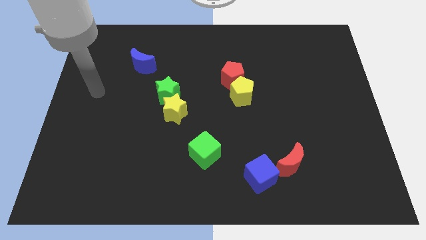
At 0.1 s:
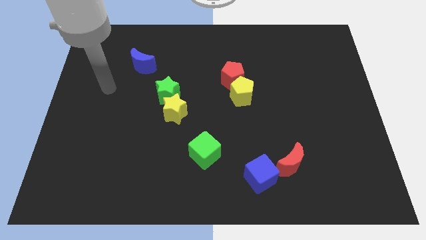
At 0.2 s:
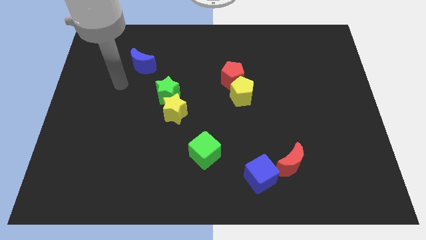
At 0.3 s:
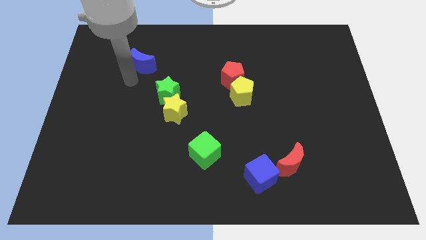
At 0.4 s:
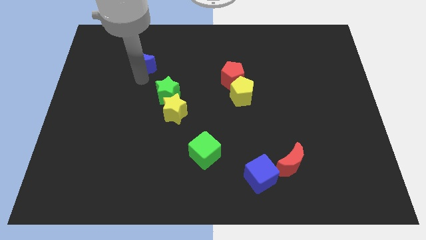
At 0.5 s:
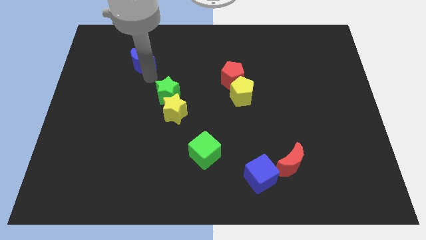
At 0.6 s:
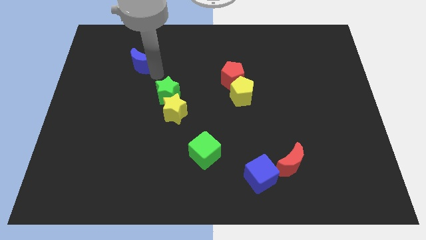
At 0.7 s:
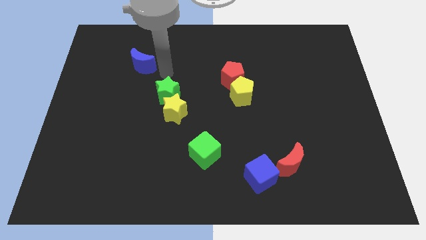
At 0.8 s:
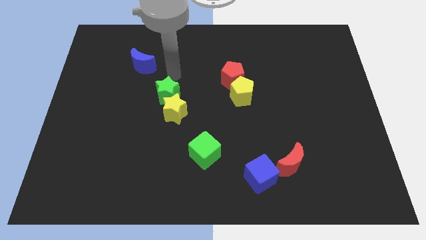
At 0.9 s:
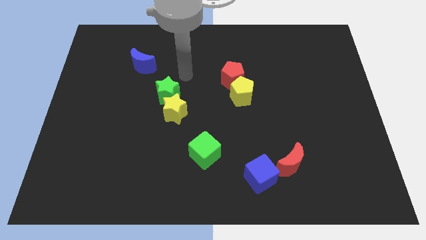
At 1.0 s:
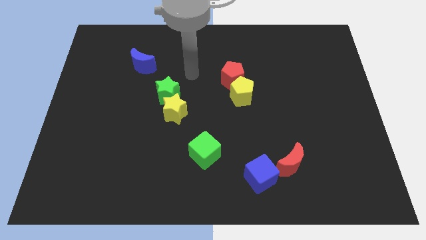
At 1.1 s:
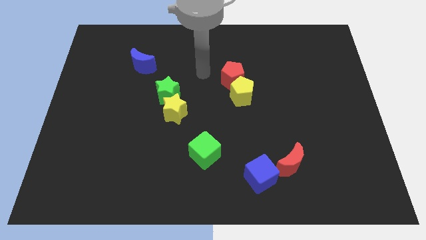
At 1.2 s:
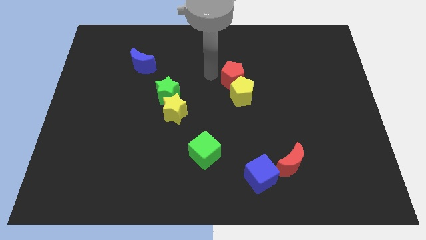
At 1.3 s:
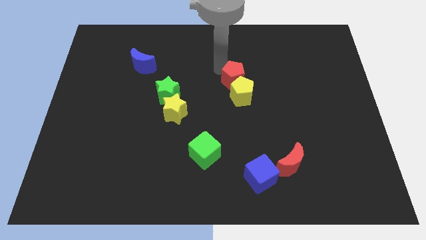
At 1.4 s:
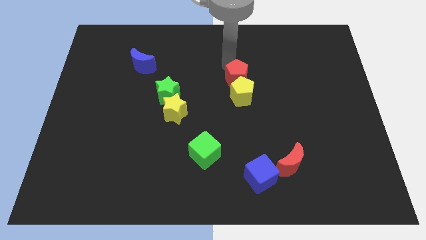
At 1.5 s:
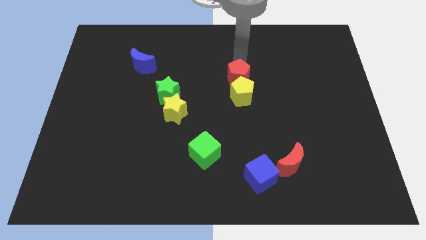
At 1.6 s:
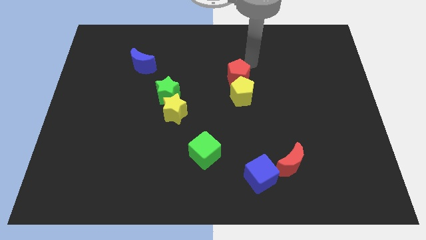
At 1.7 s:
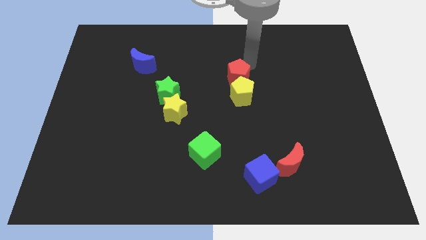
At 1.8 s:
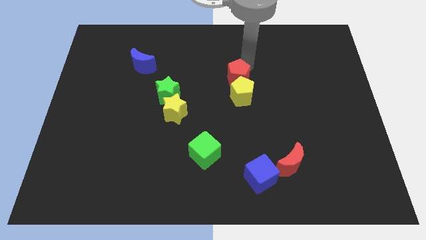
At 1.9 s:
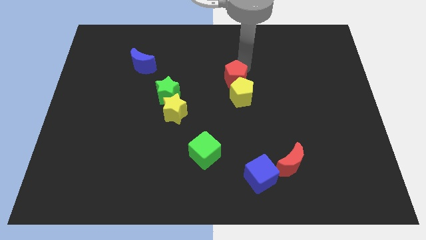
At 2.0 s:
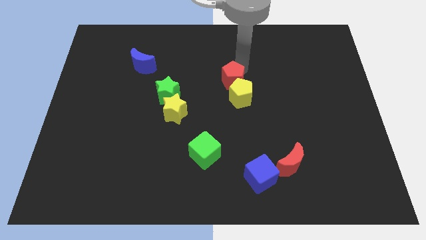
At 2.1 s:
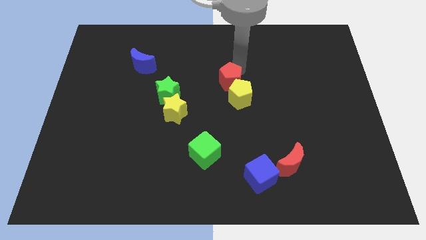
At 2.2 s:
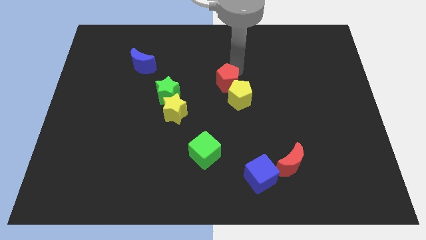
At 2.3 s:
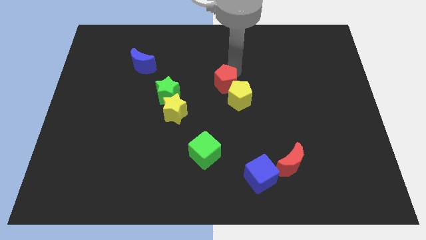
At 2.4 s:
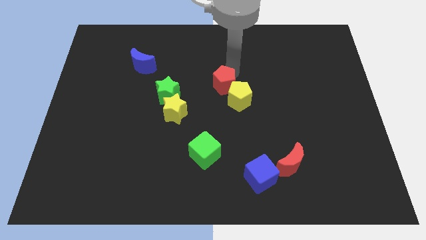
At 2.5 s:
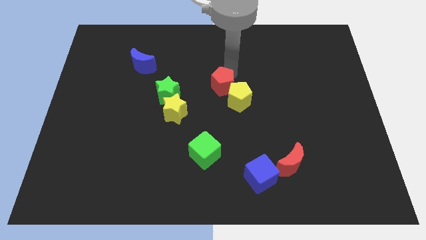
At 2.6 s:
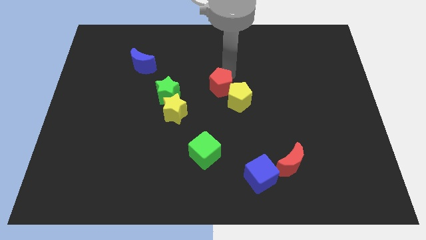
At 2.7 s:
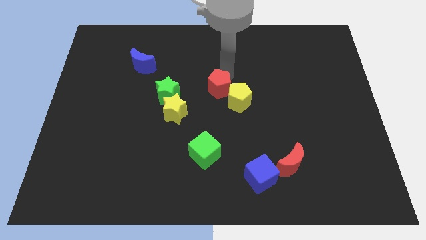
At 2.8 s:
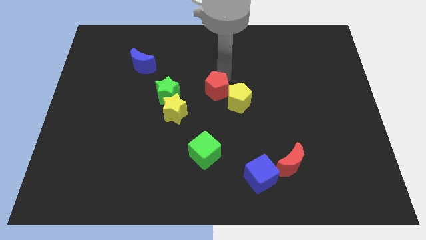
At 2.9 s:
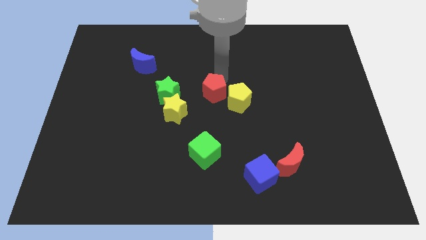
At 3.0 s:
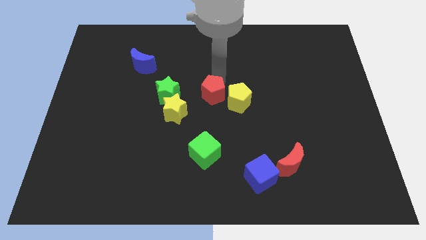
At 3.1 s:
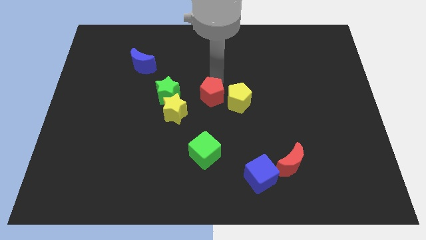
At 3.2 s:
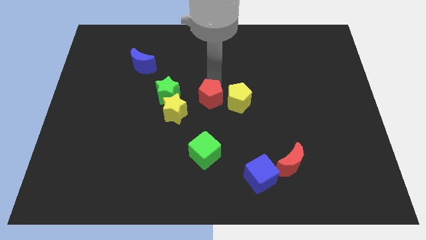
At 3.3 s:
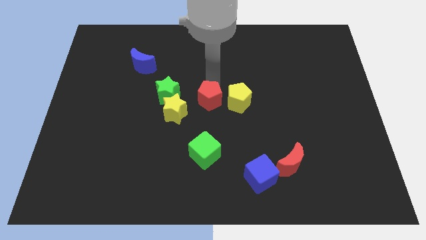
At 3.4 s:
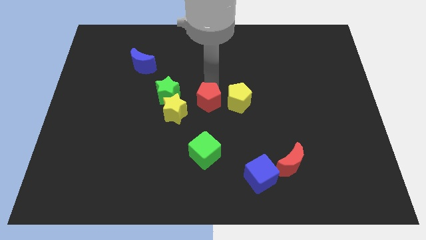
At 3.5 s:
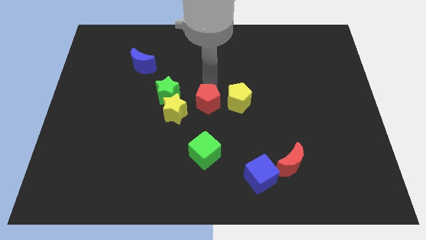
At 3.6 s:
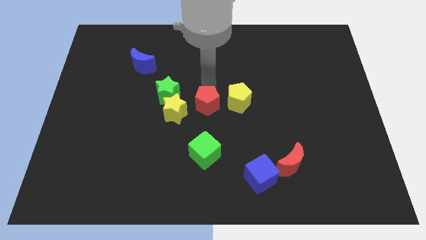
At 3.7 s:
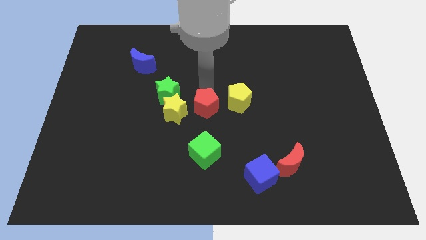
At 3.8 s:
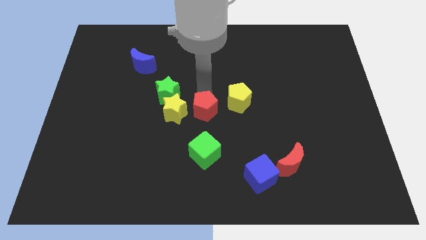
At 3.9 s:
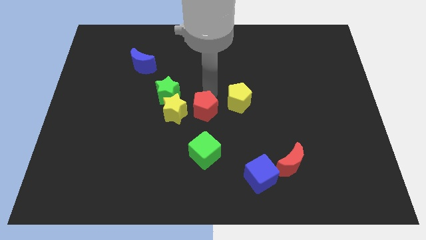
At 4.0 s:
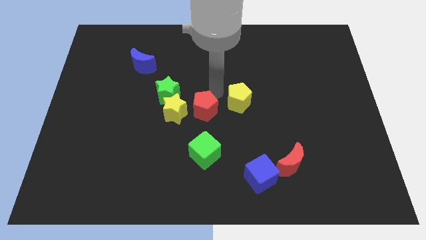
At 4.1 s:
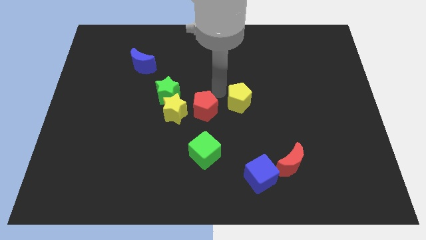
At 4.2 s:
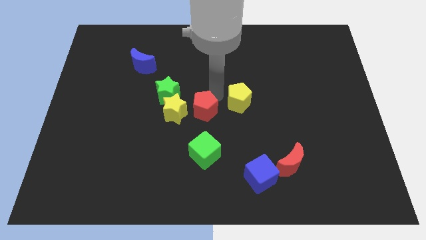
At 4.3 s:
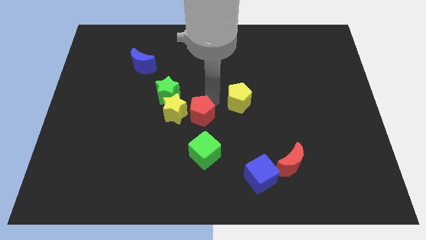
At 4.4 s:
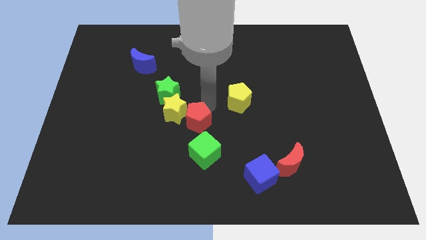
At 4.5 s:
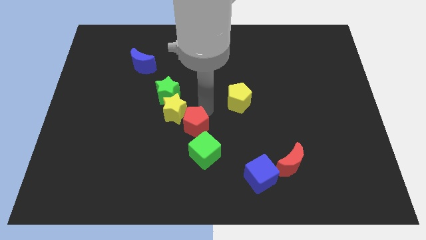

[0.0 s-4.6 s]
push the red pentagon to the bottom of the yellow star

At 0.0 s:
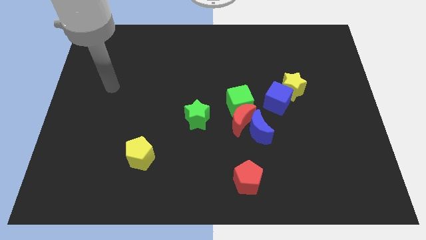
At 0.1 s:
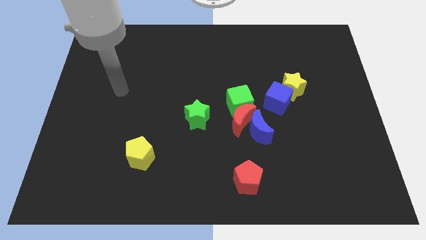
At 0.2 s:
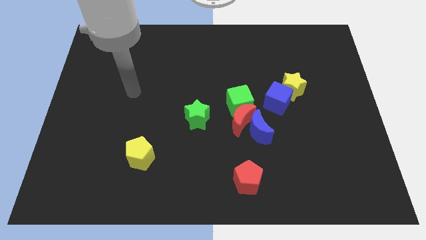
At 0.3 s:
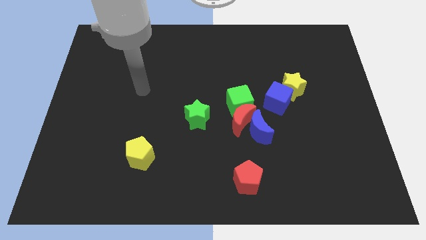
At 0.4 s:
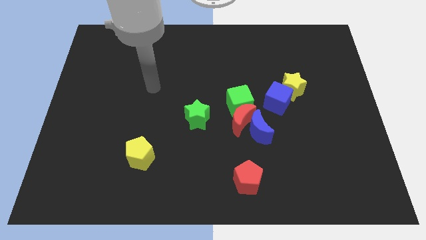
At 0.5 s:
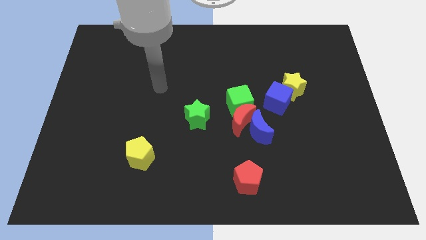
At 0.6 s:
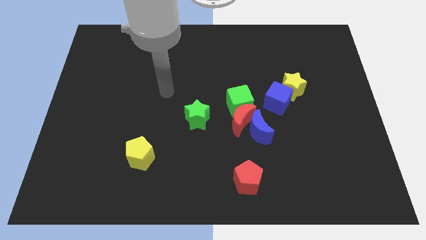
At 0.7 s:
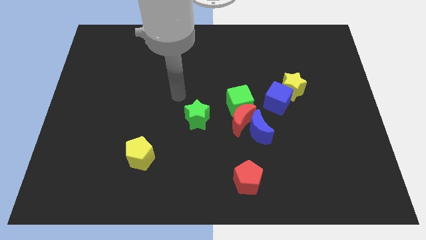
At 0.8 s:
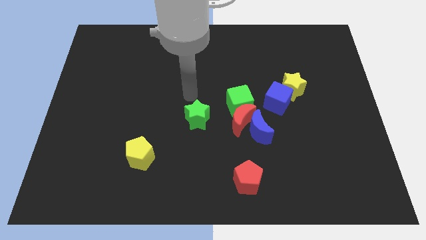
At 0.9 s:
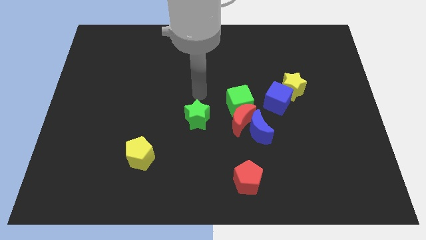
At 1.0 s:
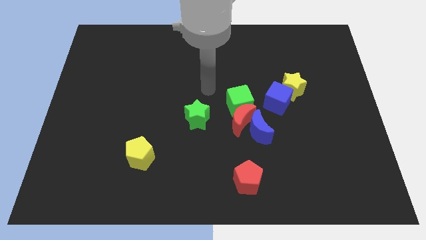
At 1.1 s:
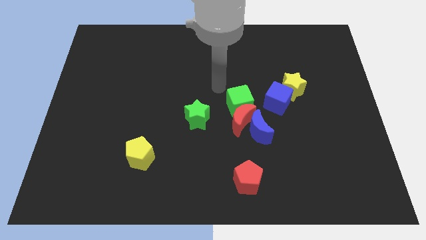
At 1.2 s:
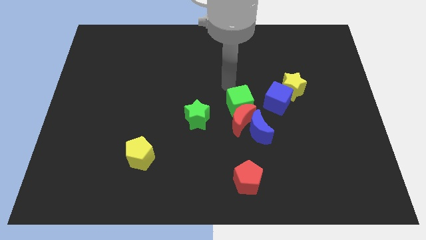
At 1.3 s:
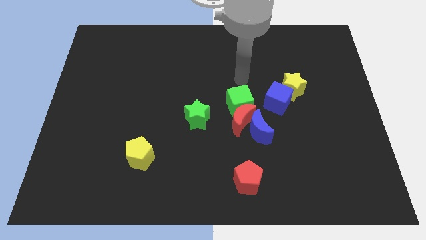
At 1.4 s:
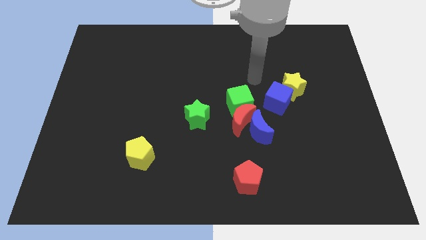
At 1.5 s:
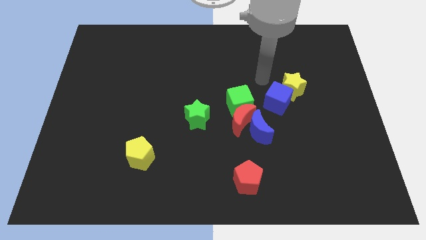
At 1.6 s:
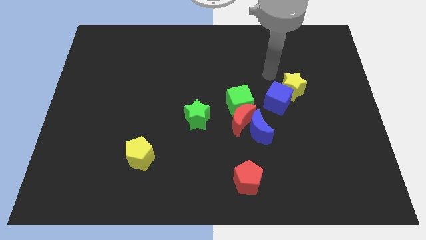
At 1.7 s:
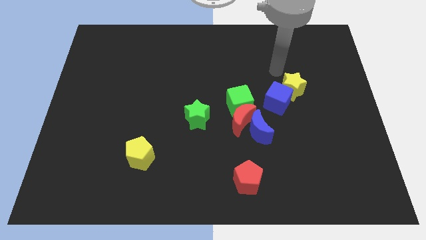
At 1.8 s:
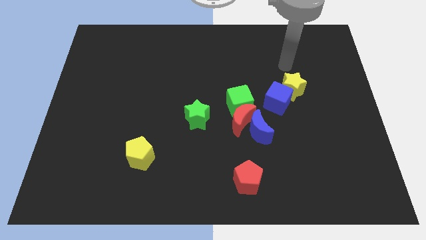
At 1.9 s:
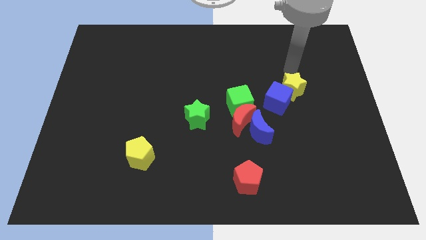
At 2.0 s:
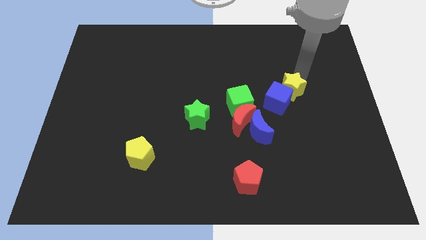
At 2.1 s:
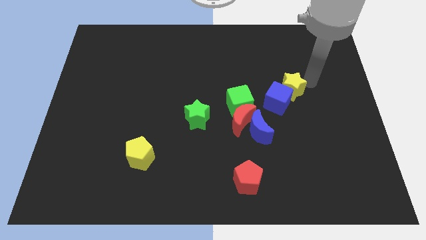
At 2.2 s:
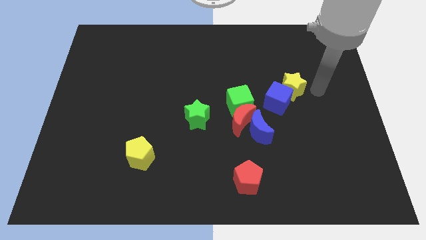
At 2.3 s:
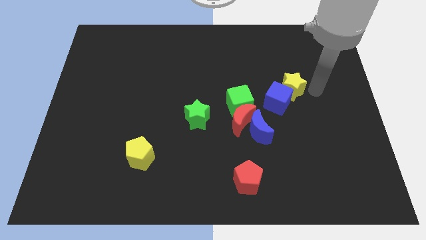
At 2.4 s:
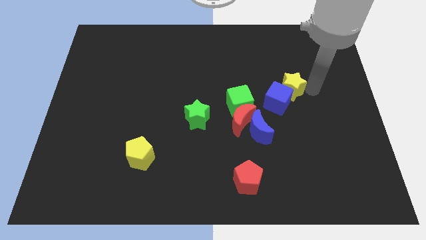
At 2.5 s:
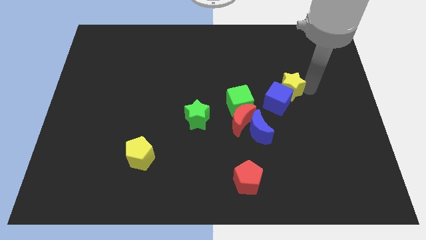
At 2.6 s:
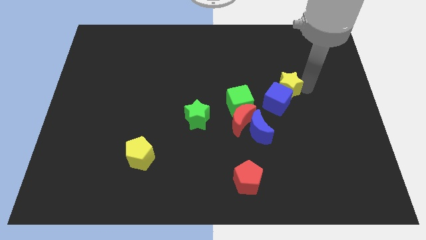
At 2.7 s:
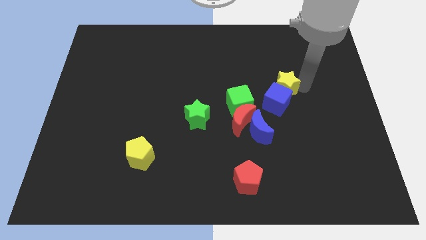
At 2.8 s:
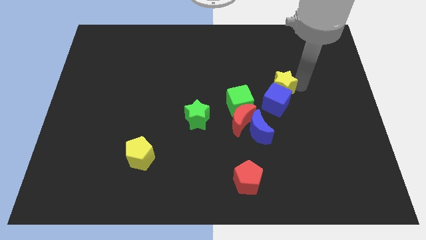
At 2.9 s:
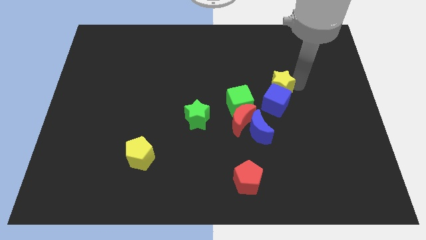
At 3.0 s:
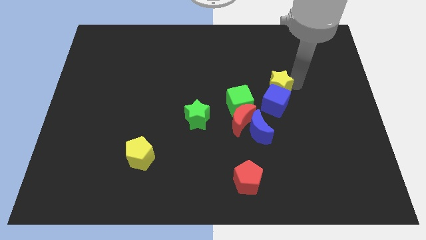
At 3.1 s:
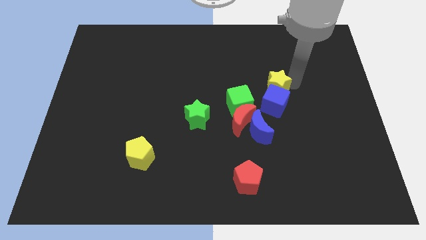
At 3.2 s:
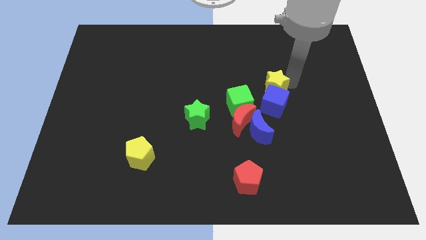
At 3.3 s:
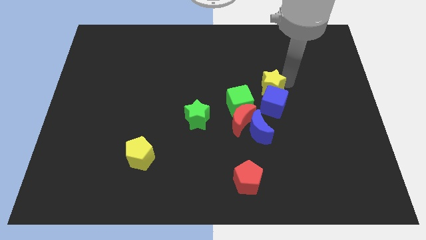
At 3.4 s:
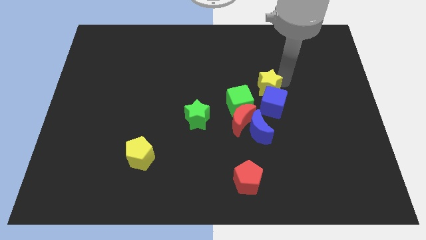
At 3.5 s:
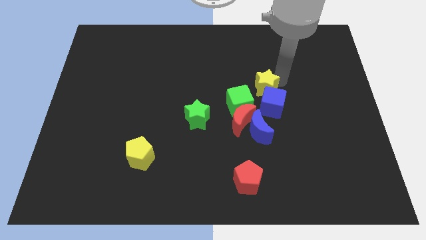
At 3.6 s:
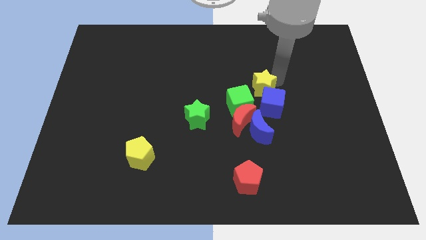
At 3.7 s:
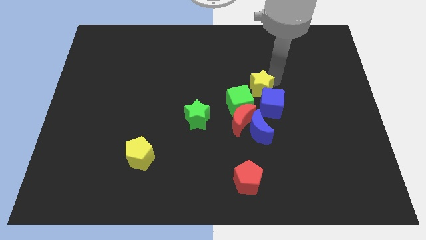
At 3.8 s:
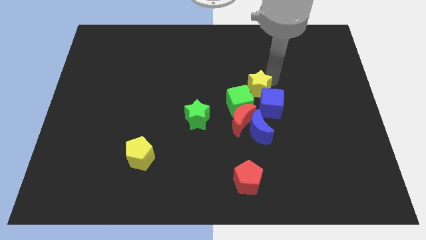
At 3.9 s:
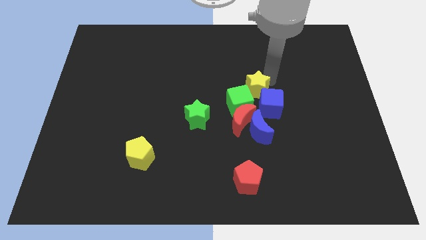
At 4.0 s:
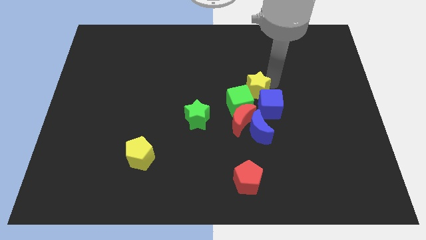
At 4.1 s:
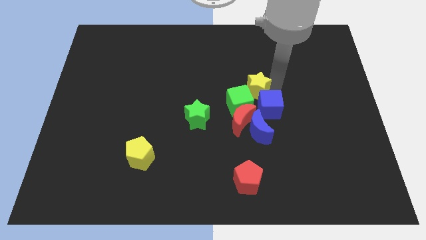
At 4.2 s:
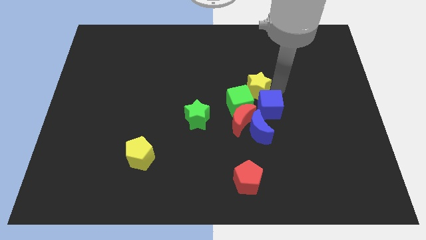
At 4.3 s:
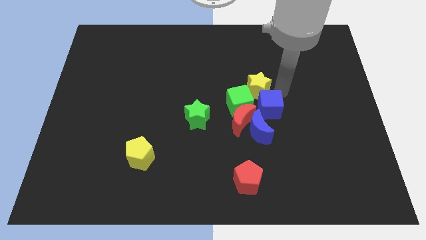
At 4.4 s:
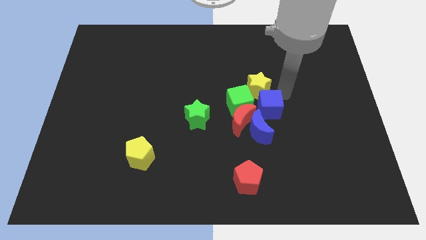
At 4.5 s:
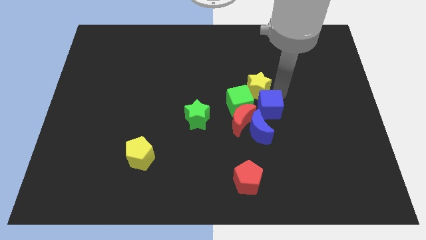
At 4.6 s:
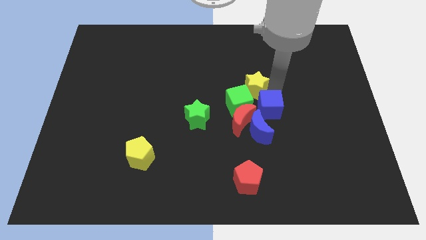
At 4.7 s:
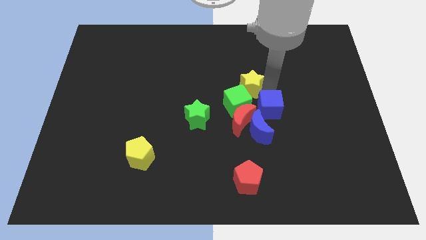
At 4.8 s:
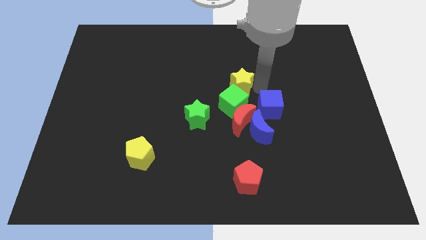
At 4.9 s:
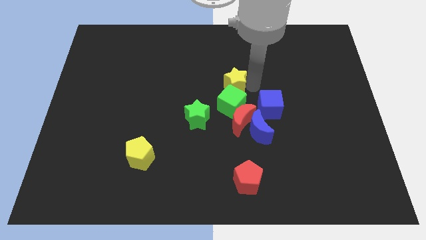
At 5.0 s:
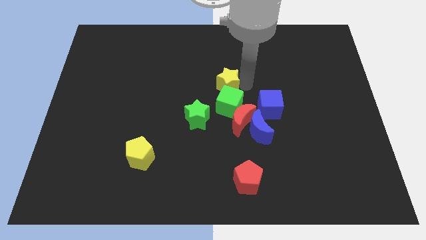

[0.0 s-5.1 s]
slide the yellow star to the top left of the green cube
